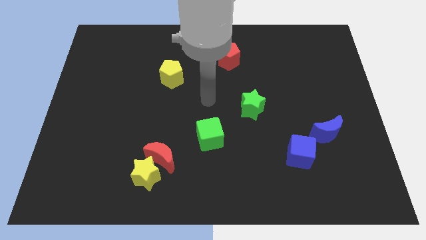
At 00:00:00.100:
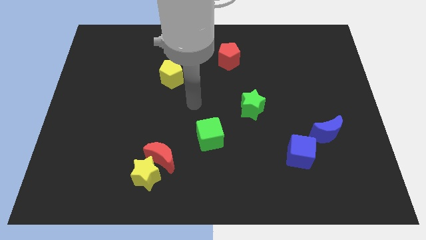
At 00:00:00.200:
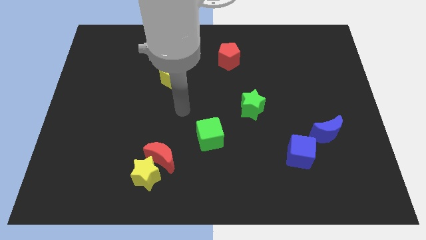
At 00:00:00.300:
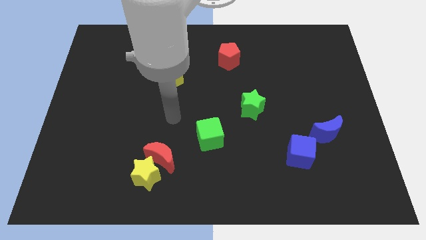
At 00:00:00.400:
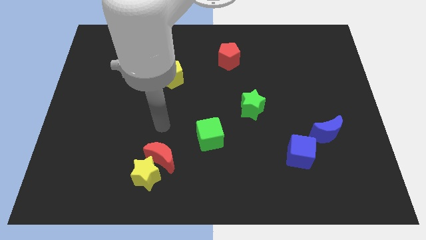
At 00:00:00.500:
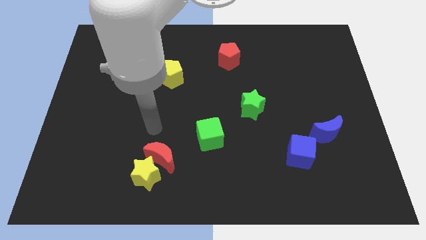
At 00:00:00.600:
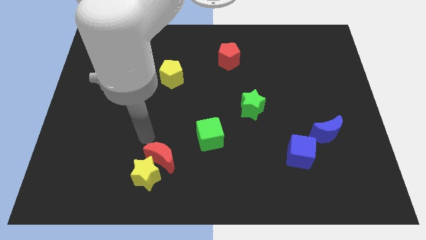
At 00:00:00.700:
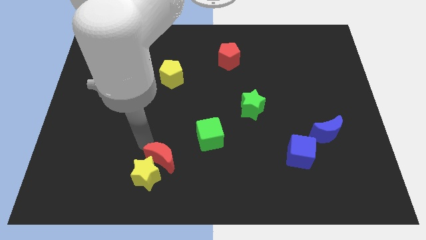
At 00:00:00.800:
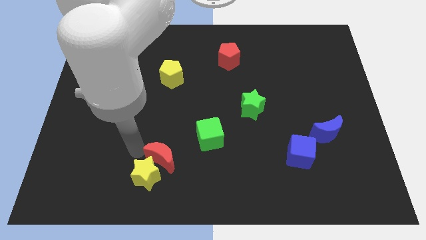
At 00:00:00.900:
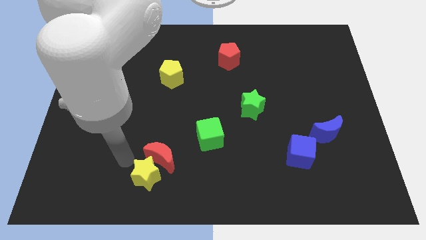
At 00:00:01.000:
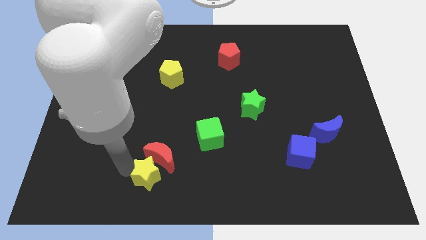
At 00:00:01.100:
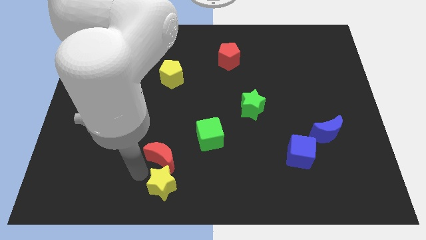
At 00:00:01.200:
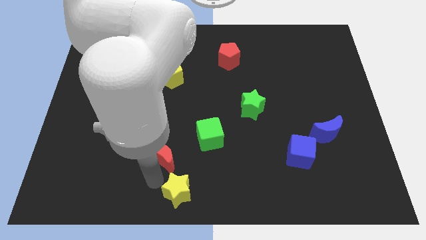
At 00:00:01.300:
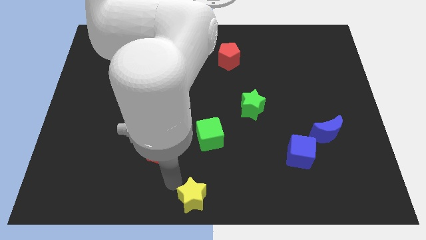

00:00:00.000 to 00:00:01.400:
pull the red moon apart from the yellow star

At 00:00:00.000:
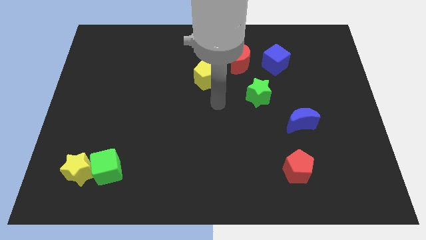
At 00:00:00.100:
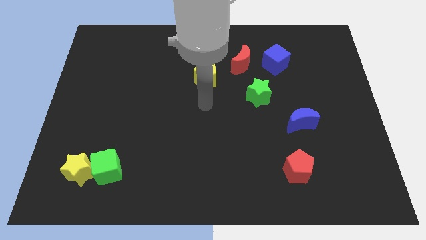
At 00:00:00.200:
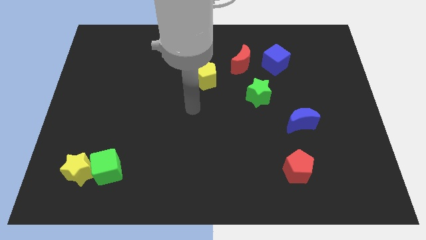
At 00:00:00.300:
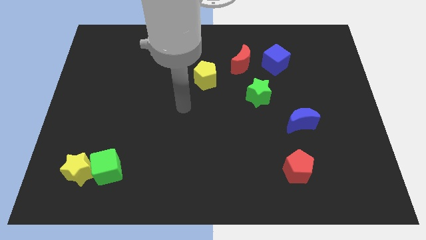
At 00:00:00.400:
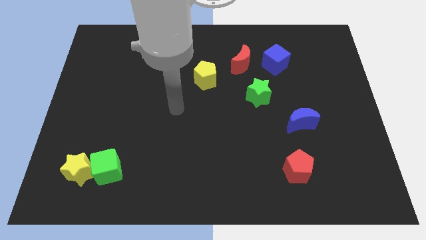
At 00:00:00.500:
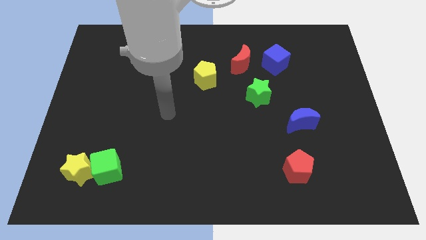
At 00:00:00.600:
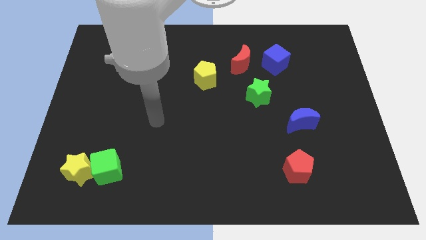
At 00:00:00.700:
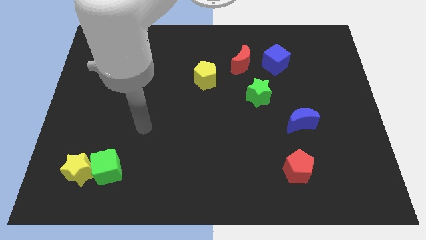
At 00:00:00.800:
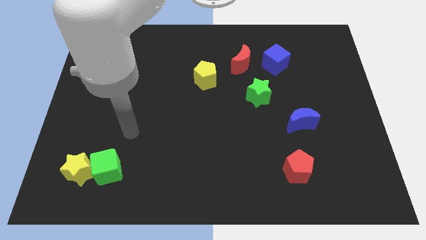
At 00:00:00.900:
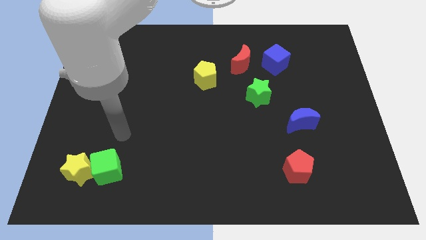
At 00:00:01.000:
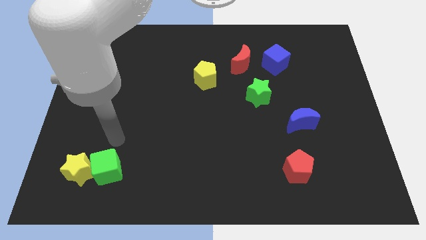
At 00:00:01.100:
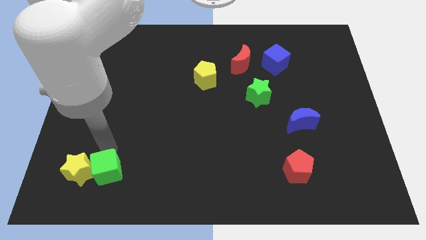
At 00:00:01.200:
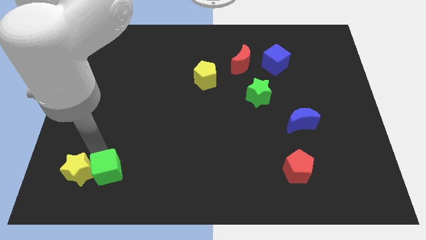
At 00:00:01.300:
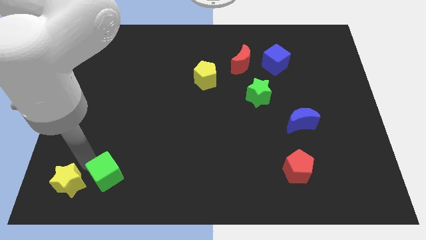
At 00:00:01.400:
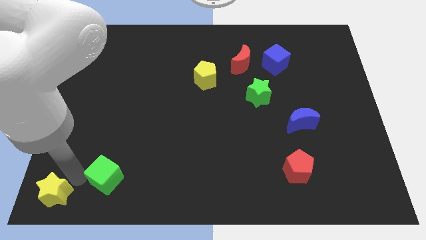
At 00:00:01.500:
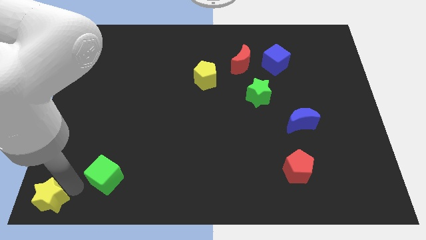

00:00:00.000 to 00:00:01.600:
separate the green cube from the yellow star

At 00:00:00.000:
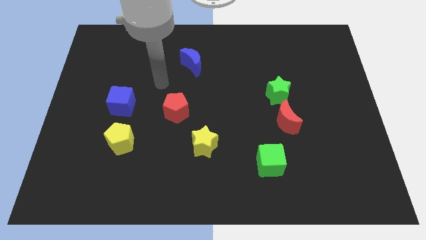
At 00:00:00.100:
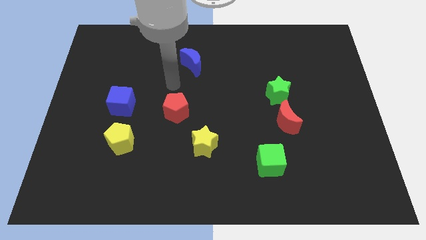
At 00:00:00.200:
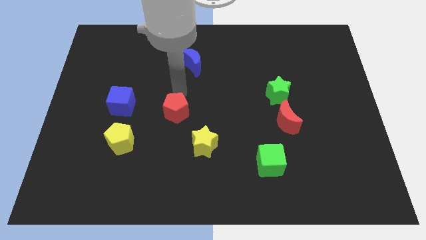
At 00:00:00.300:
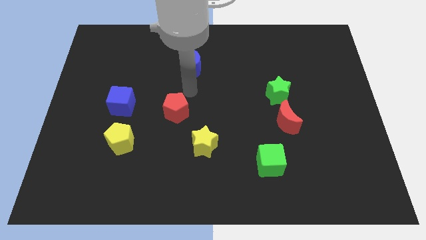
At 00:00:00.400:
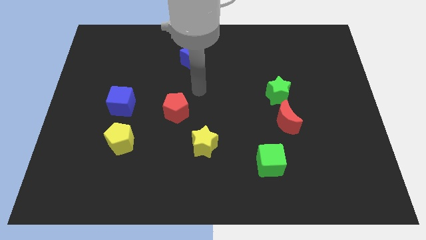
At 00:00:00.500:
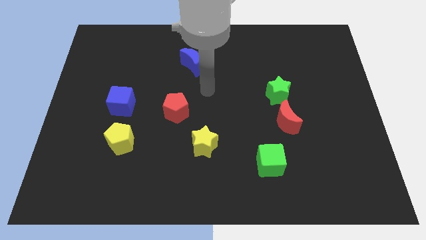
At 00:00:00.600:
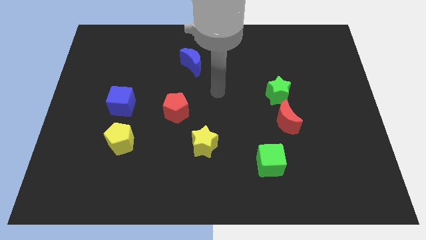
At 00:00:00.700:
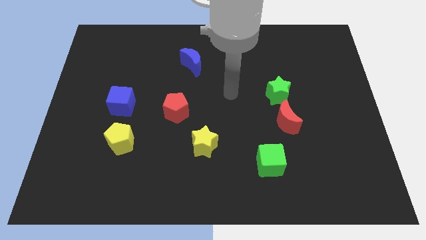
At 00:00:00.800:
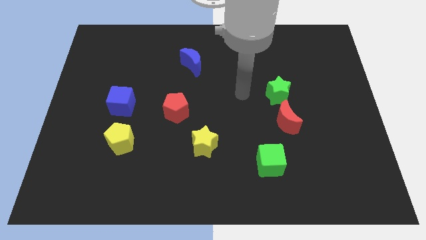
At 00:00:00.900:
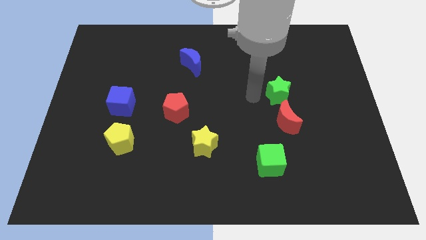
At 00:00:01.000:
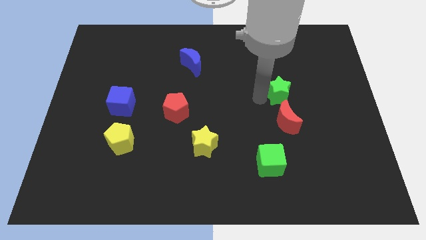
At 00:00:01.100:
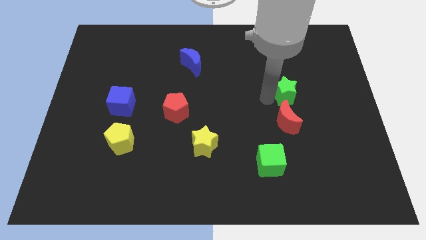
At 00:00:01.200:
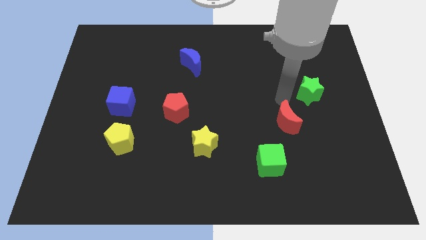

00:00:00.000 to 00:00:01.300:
separate the red moon from the green star

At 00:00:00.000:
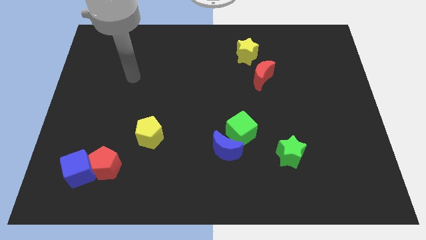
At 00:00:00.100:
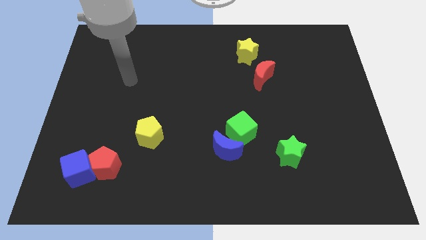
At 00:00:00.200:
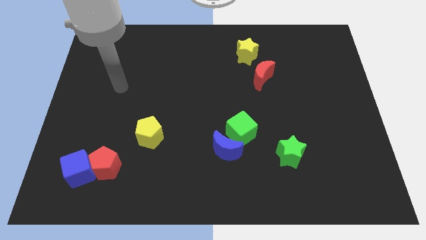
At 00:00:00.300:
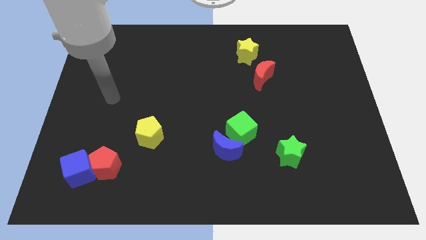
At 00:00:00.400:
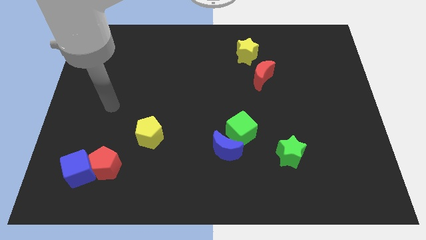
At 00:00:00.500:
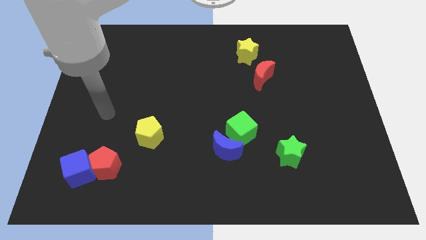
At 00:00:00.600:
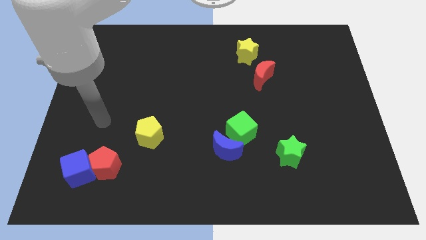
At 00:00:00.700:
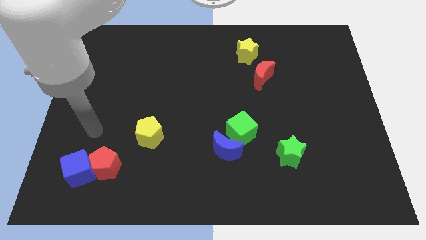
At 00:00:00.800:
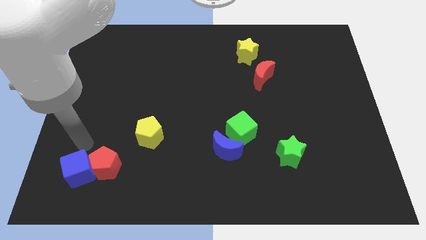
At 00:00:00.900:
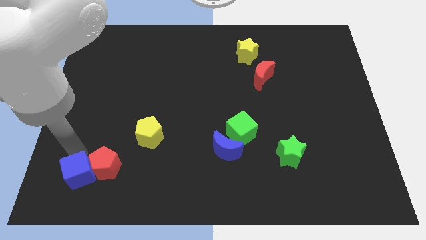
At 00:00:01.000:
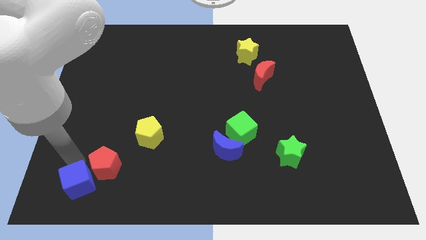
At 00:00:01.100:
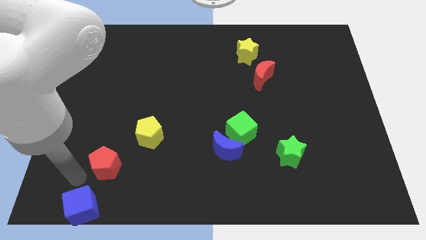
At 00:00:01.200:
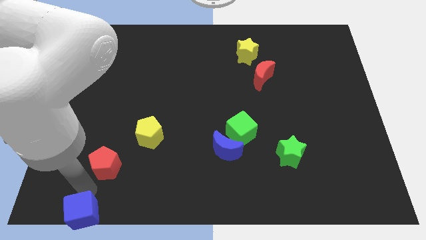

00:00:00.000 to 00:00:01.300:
separate the red pentagon from the blue cube

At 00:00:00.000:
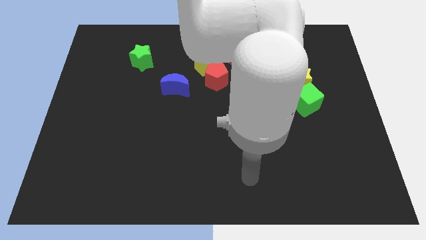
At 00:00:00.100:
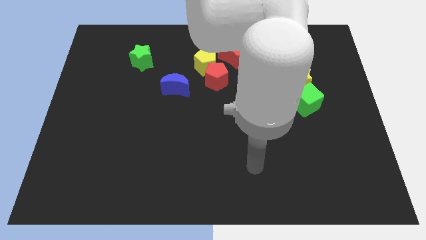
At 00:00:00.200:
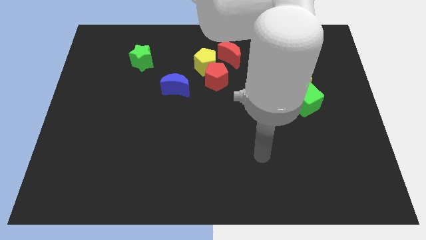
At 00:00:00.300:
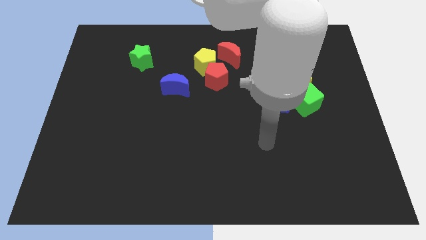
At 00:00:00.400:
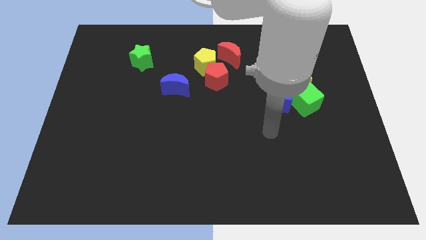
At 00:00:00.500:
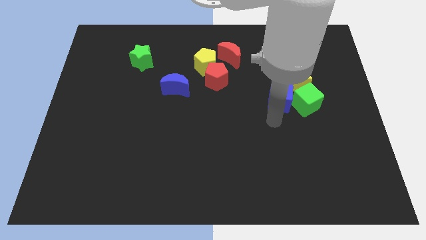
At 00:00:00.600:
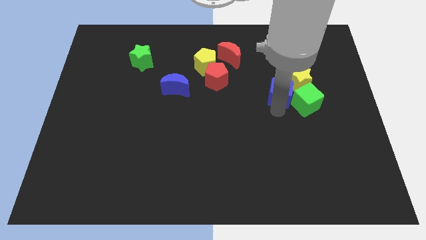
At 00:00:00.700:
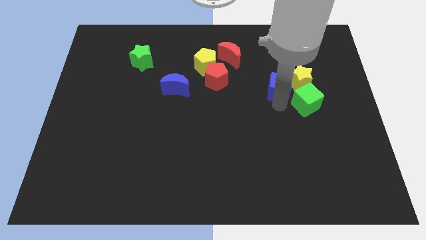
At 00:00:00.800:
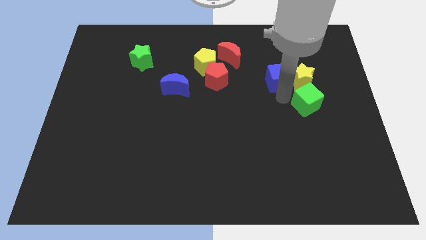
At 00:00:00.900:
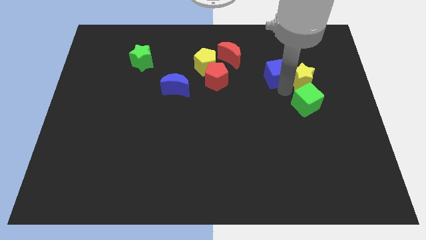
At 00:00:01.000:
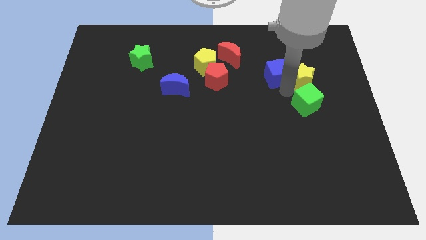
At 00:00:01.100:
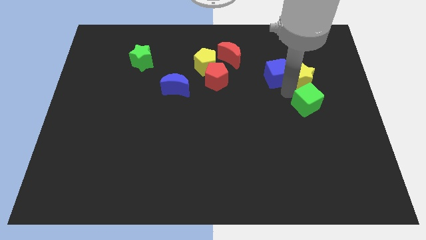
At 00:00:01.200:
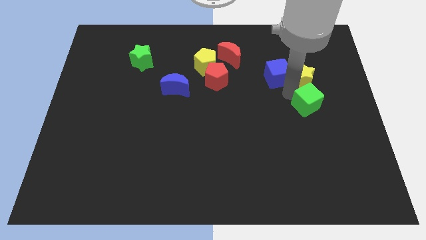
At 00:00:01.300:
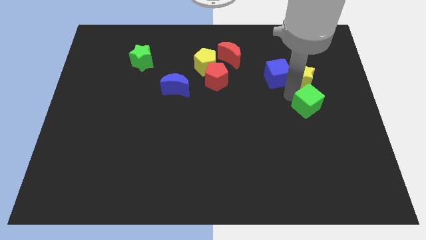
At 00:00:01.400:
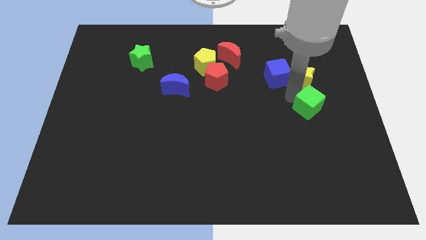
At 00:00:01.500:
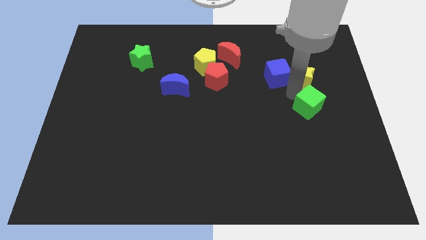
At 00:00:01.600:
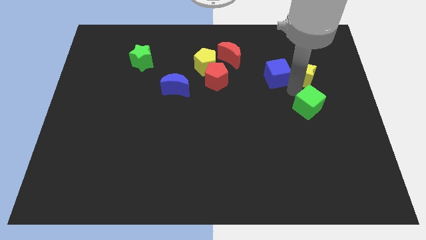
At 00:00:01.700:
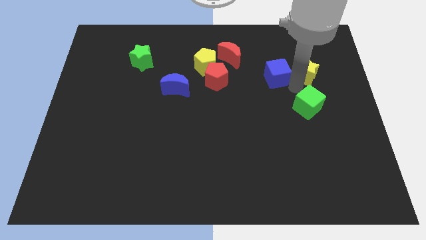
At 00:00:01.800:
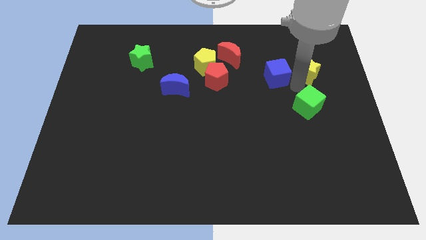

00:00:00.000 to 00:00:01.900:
separate the green cube from the yellow star and blue cube

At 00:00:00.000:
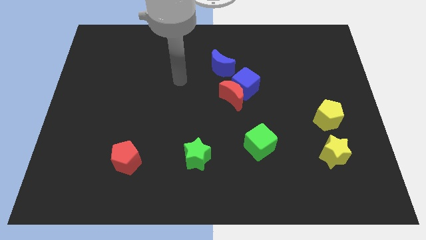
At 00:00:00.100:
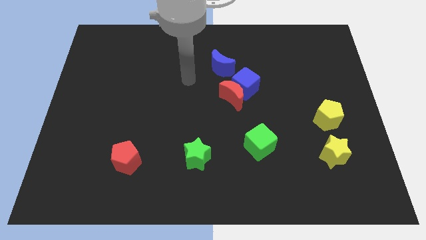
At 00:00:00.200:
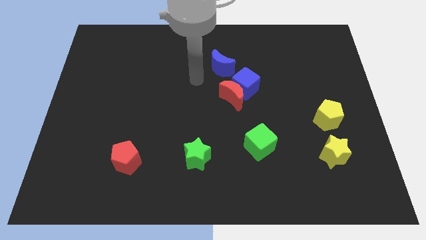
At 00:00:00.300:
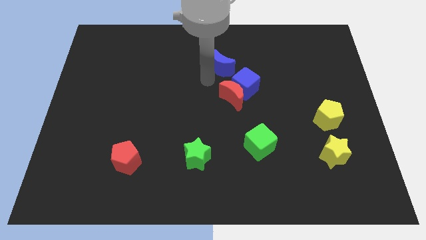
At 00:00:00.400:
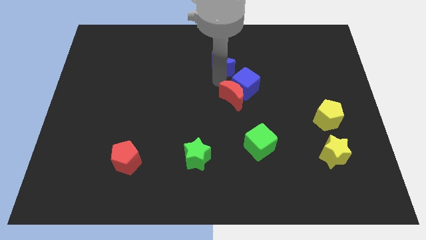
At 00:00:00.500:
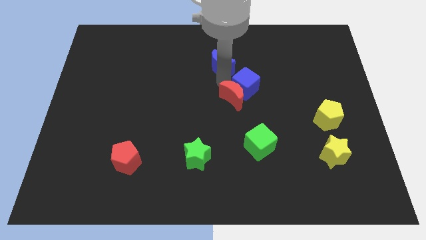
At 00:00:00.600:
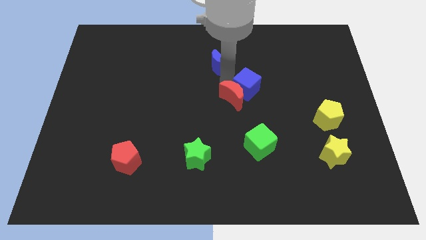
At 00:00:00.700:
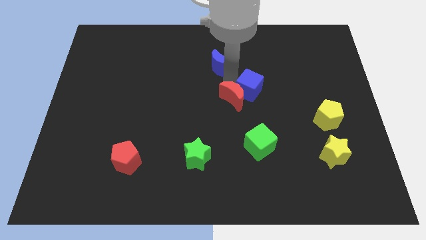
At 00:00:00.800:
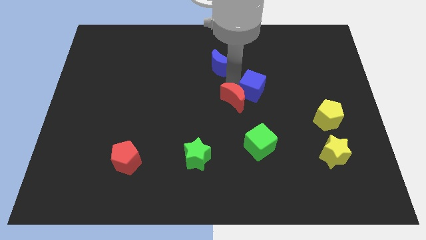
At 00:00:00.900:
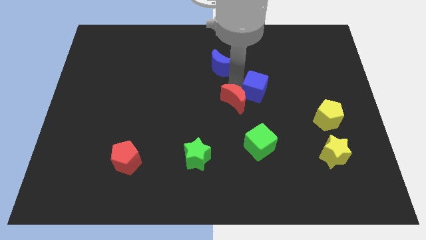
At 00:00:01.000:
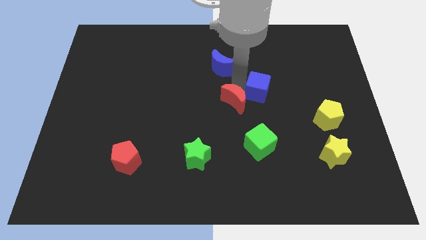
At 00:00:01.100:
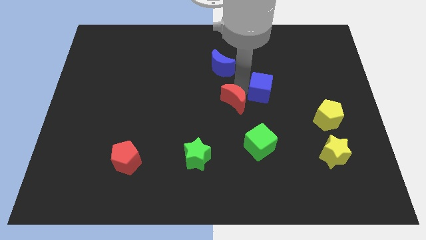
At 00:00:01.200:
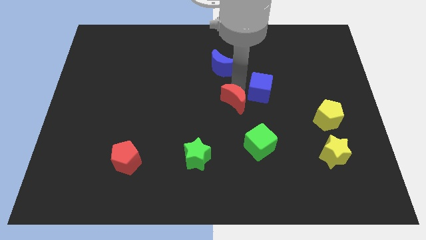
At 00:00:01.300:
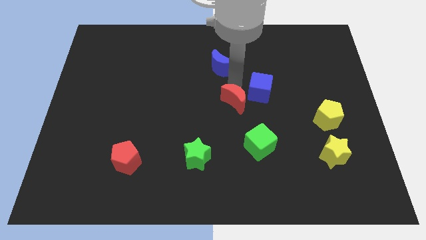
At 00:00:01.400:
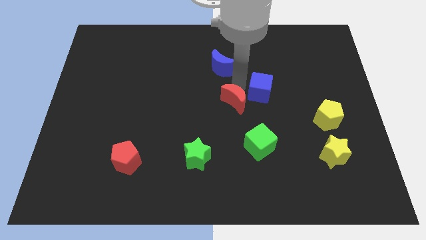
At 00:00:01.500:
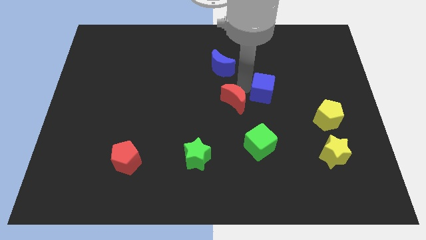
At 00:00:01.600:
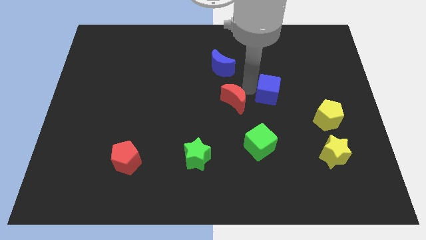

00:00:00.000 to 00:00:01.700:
pull the blue cube apart from the red moon and blue moon
